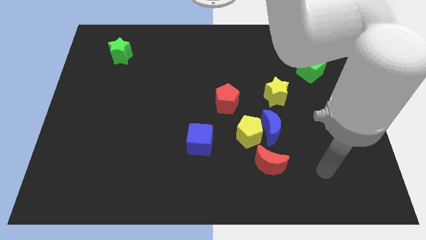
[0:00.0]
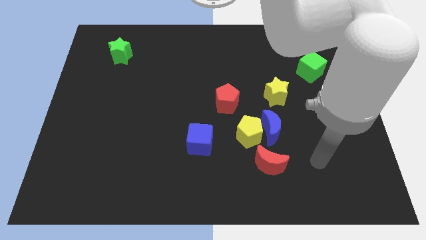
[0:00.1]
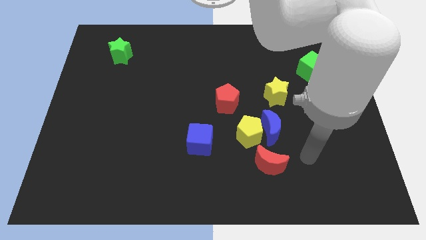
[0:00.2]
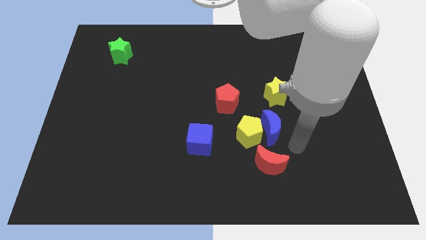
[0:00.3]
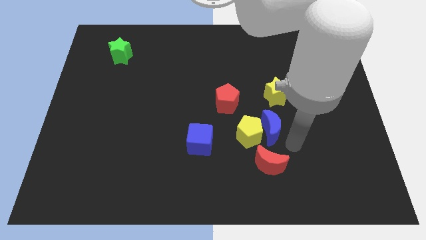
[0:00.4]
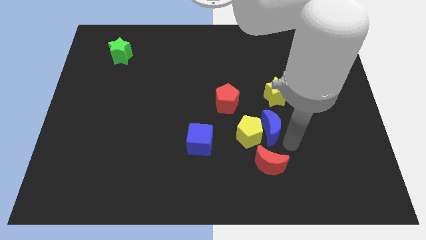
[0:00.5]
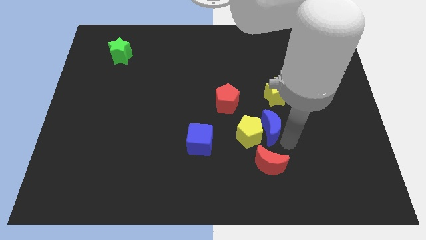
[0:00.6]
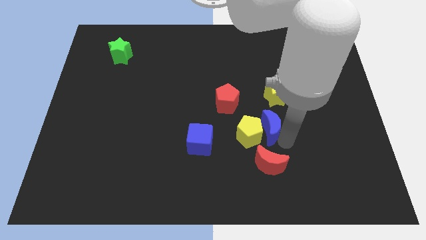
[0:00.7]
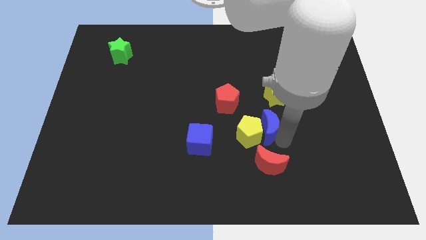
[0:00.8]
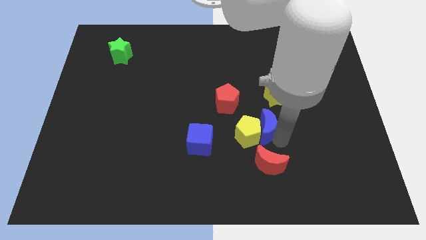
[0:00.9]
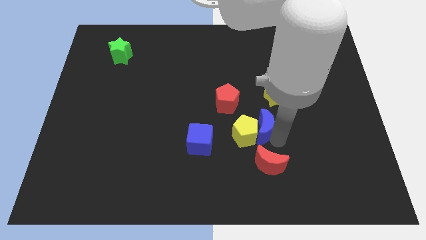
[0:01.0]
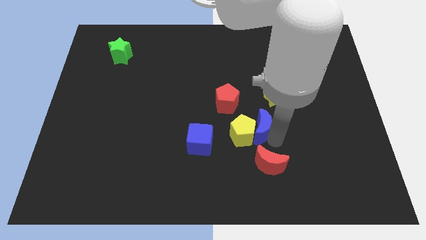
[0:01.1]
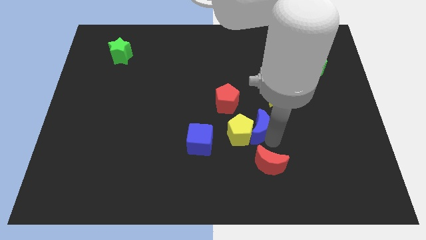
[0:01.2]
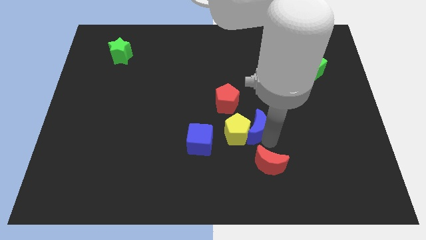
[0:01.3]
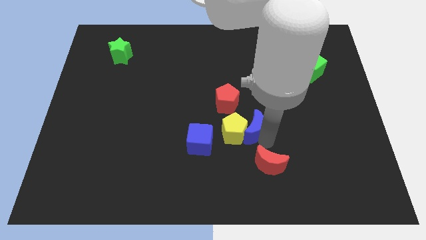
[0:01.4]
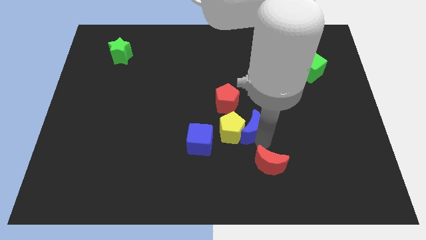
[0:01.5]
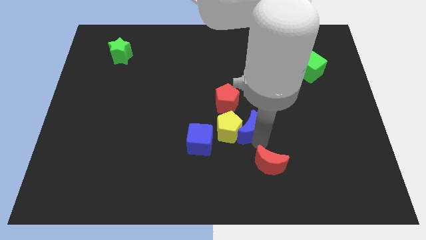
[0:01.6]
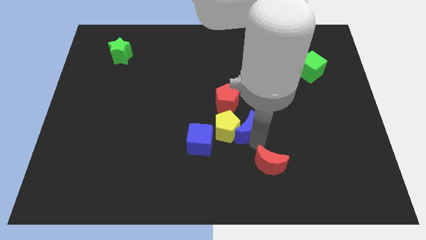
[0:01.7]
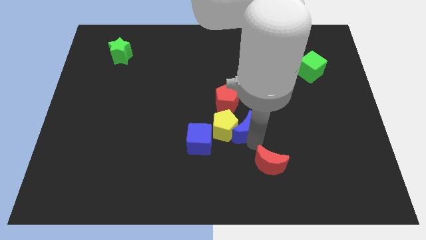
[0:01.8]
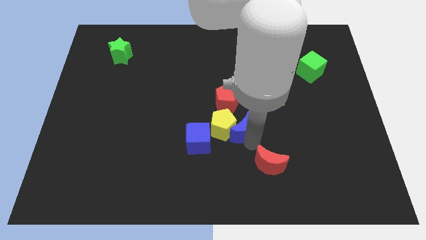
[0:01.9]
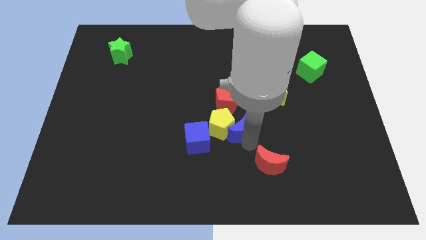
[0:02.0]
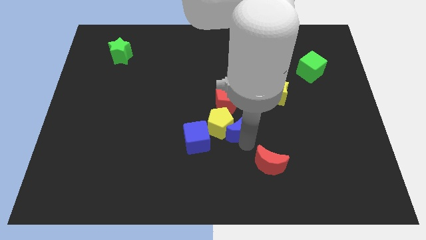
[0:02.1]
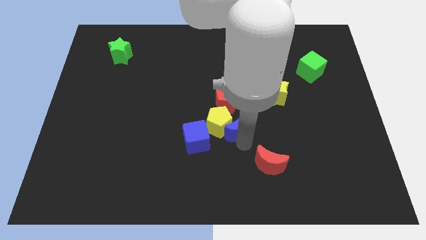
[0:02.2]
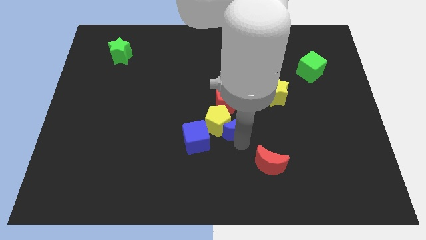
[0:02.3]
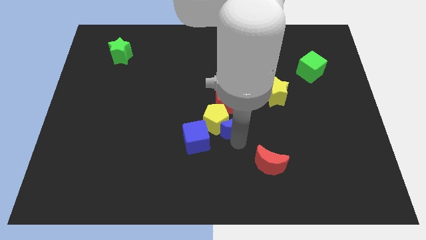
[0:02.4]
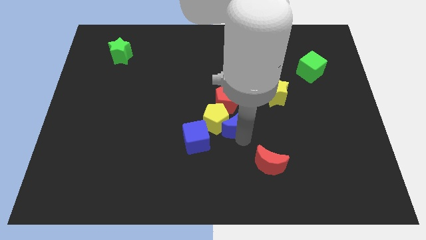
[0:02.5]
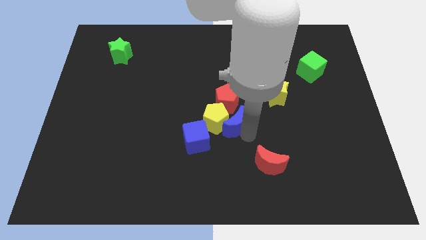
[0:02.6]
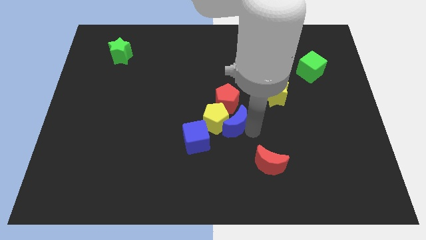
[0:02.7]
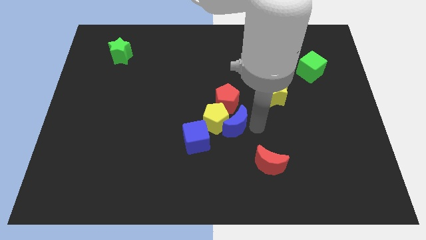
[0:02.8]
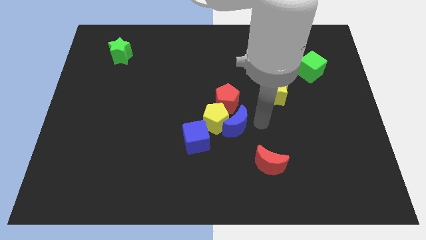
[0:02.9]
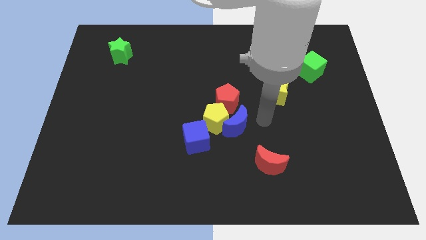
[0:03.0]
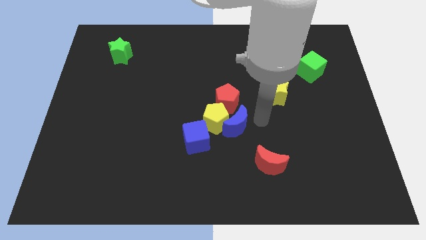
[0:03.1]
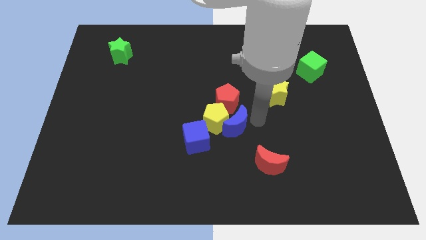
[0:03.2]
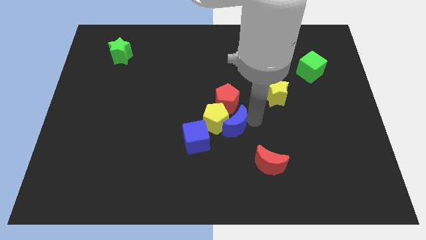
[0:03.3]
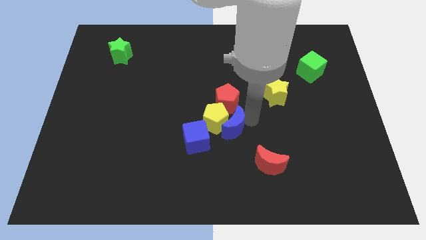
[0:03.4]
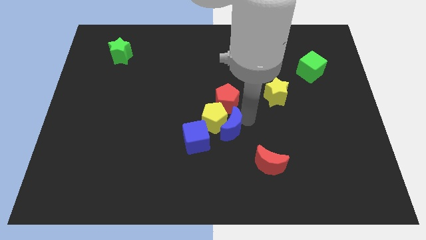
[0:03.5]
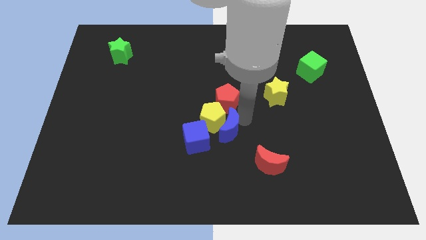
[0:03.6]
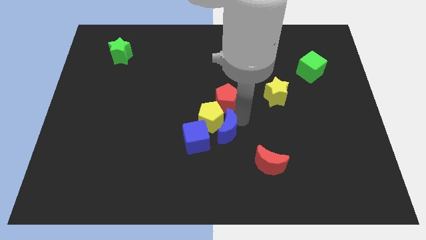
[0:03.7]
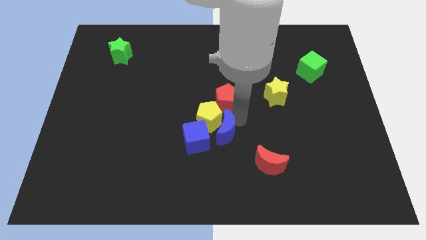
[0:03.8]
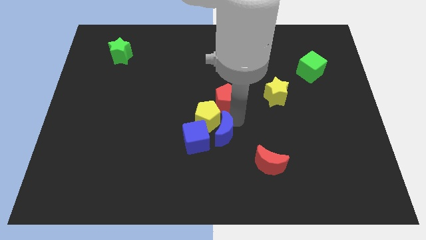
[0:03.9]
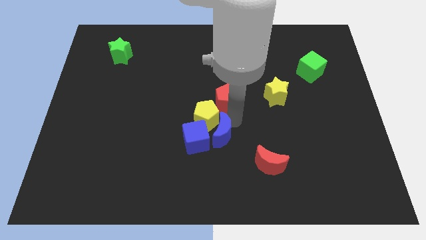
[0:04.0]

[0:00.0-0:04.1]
push the blue moon close to the blue cube

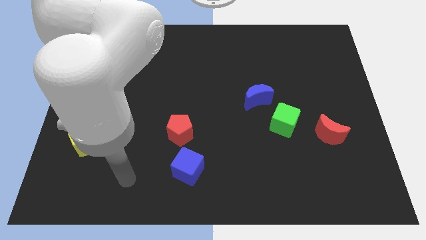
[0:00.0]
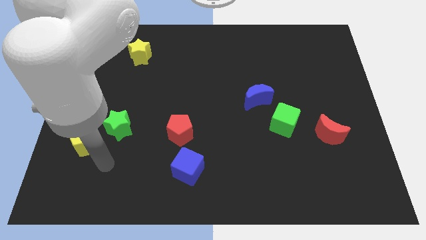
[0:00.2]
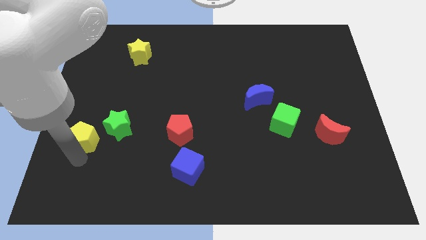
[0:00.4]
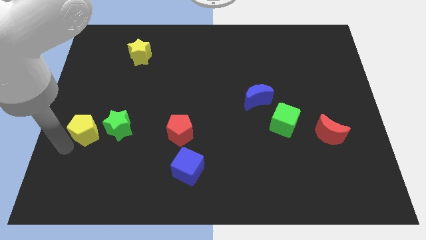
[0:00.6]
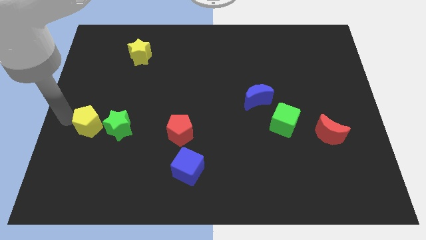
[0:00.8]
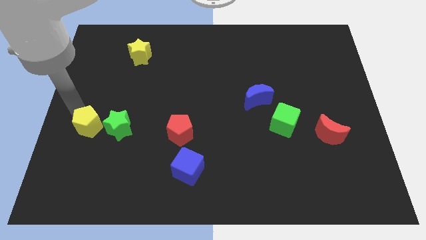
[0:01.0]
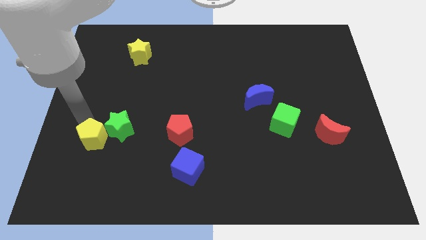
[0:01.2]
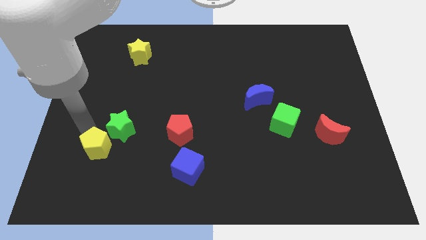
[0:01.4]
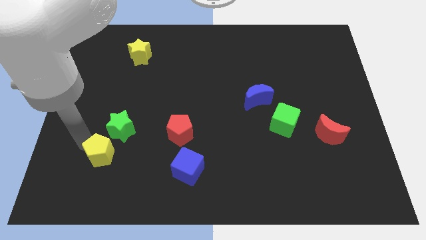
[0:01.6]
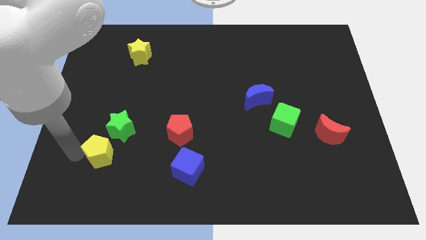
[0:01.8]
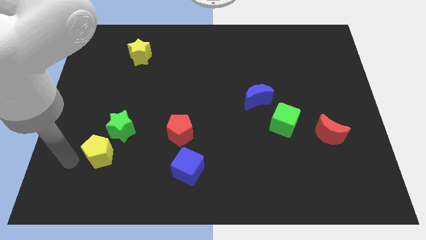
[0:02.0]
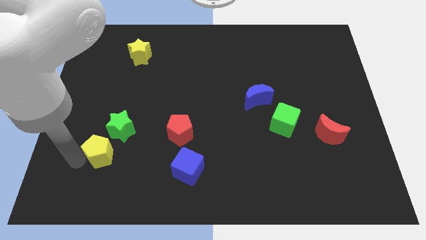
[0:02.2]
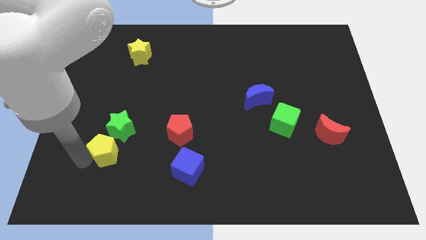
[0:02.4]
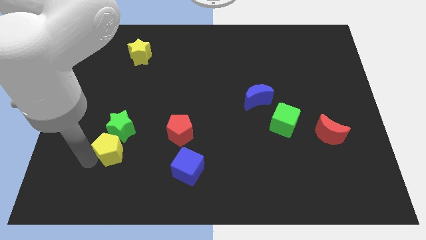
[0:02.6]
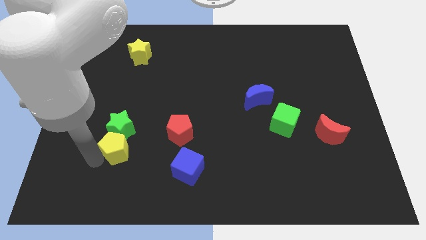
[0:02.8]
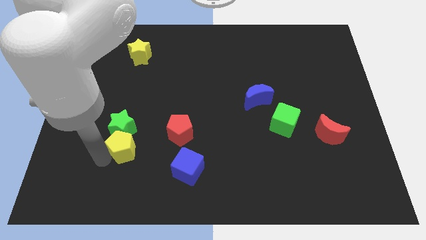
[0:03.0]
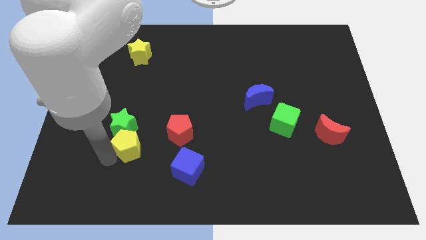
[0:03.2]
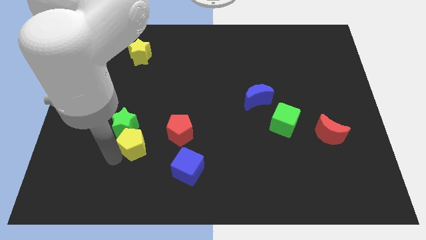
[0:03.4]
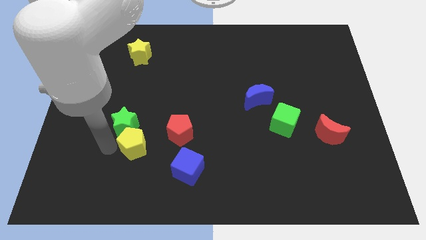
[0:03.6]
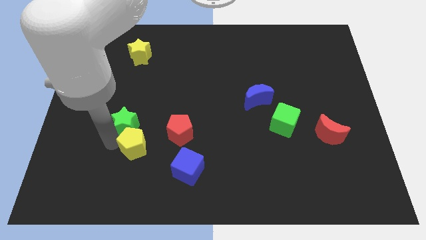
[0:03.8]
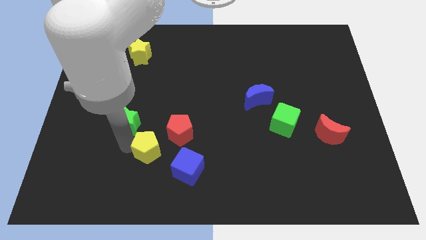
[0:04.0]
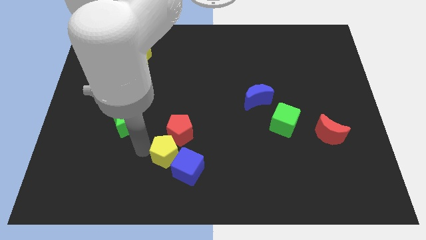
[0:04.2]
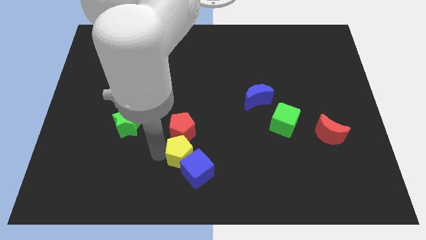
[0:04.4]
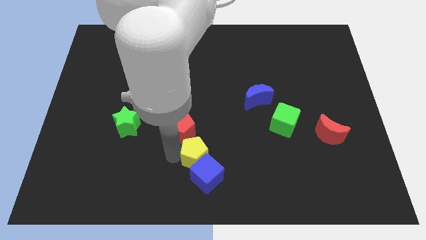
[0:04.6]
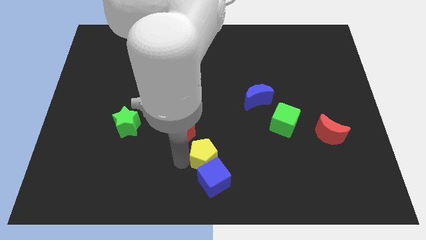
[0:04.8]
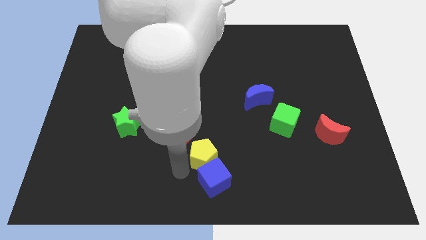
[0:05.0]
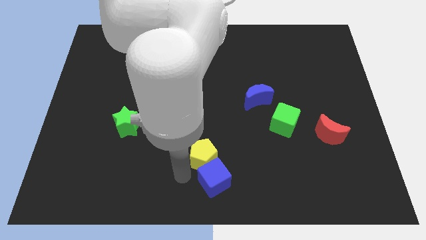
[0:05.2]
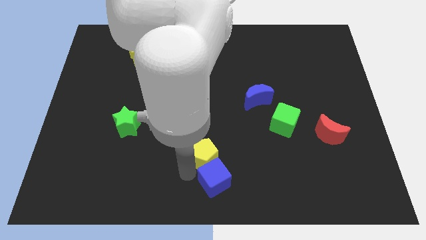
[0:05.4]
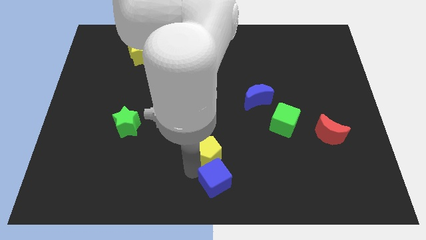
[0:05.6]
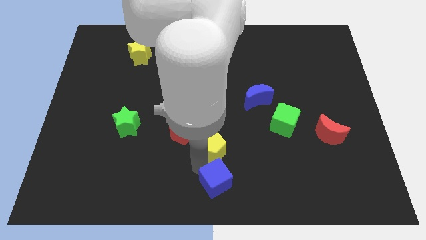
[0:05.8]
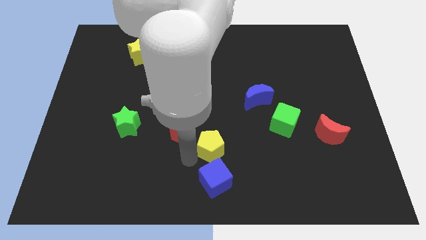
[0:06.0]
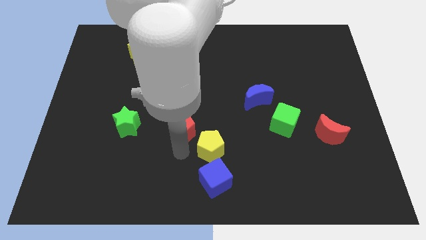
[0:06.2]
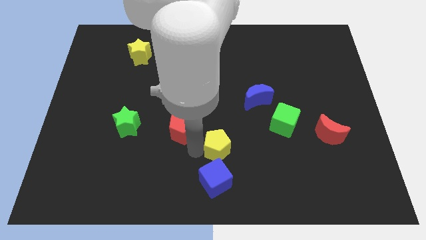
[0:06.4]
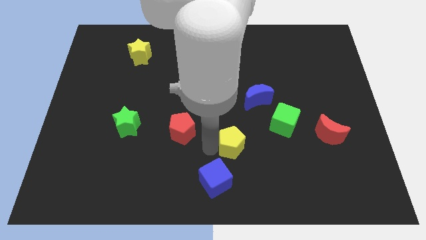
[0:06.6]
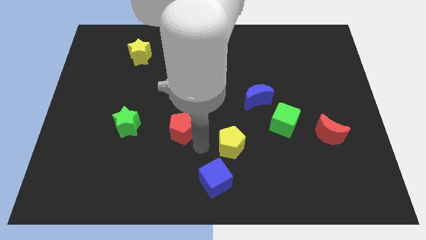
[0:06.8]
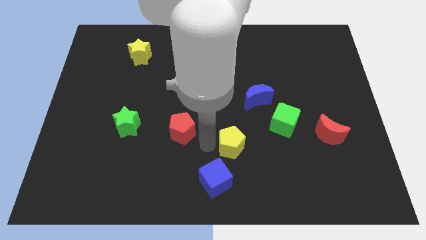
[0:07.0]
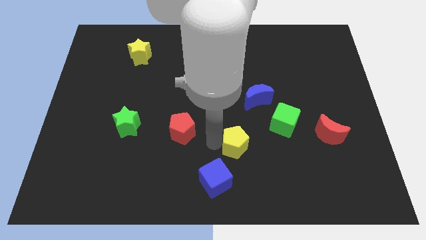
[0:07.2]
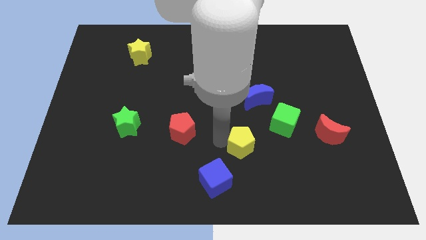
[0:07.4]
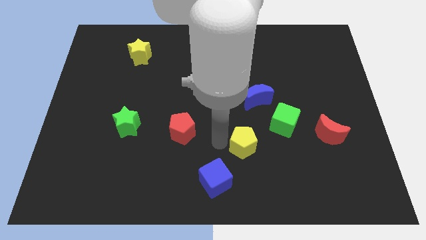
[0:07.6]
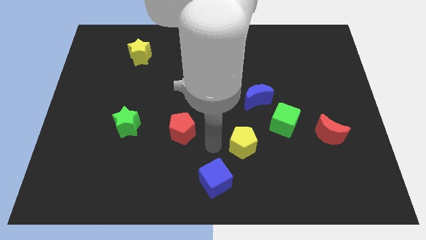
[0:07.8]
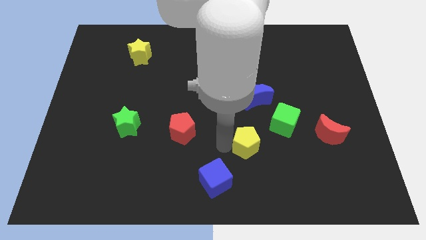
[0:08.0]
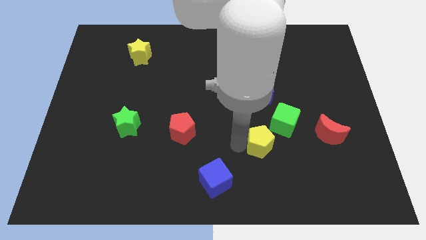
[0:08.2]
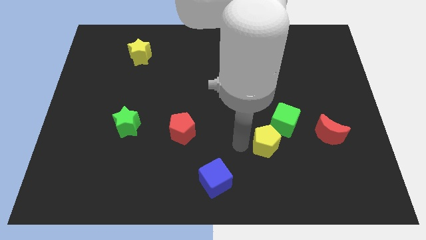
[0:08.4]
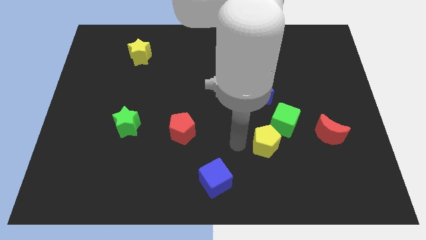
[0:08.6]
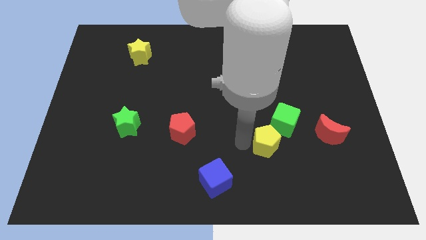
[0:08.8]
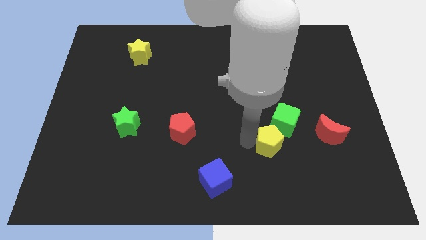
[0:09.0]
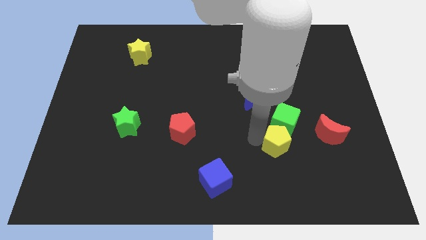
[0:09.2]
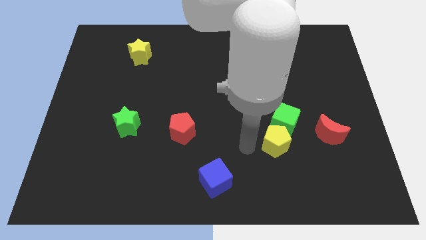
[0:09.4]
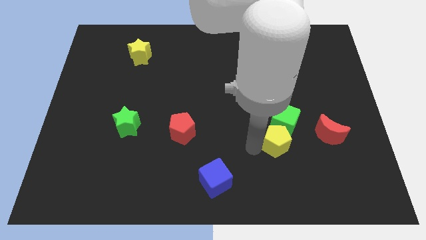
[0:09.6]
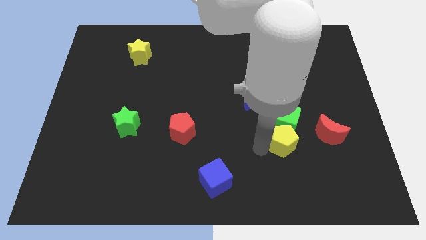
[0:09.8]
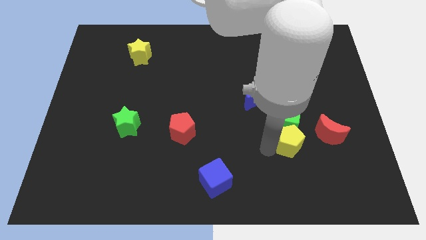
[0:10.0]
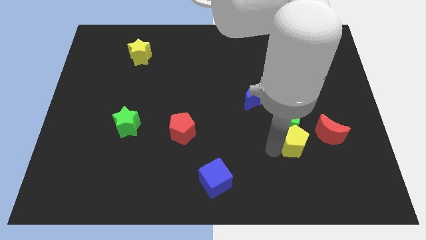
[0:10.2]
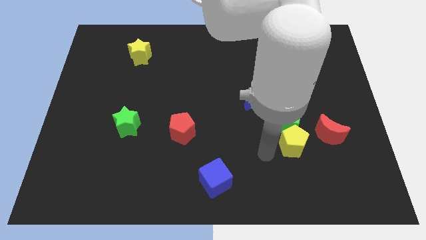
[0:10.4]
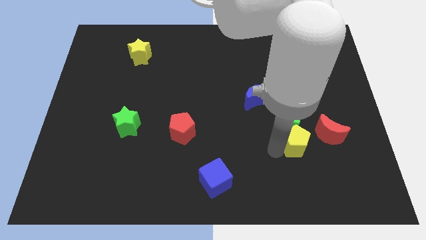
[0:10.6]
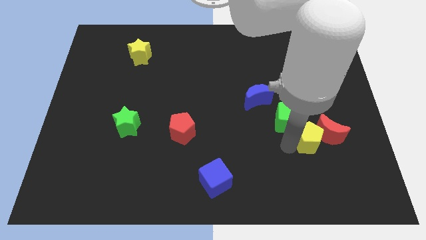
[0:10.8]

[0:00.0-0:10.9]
push the yellow pentagon towards the red moon
